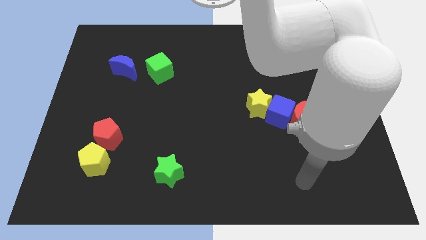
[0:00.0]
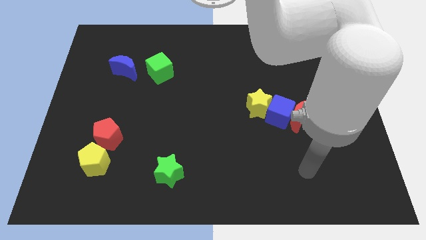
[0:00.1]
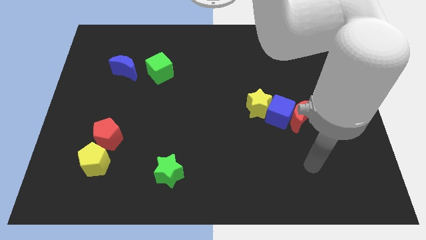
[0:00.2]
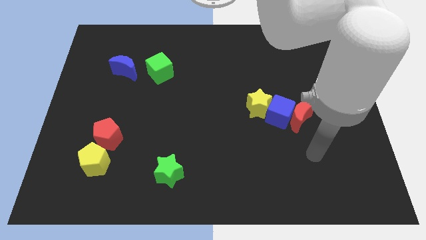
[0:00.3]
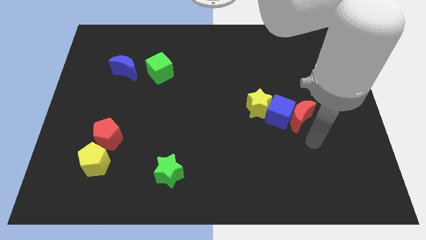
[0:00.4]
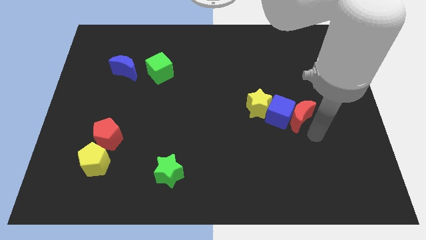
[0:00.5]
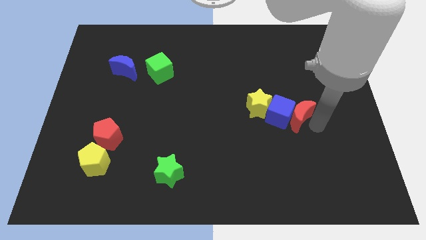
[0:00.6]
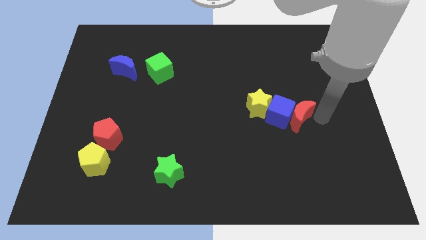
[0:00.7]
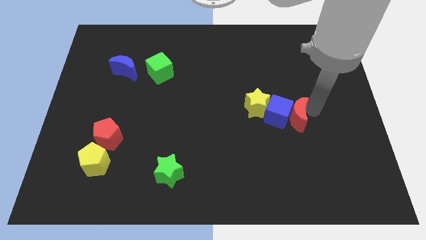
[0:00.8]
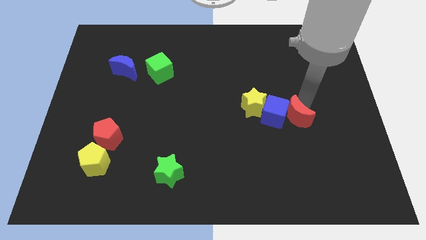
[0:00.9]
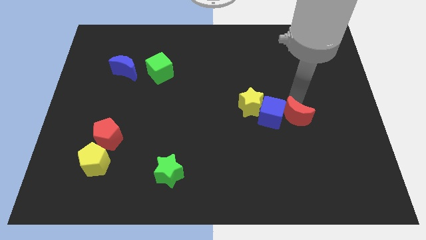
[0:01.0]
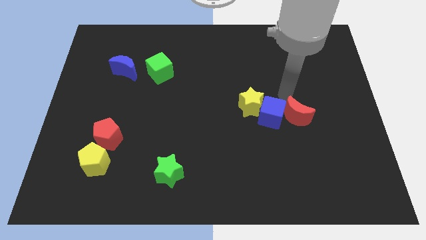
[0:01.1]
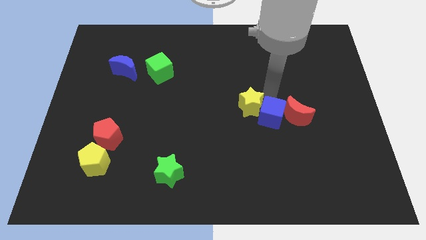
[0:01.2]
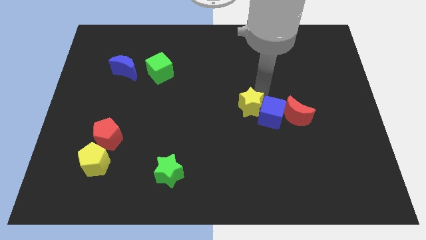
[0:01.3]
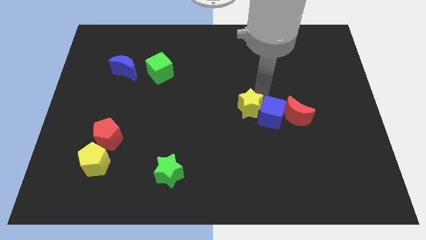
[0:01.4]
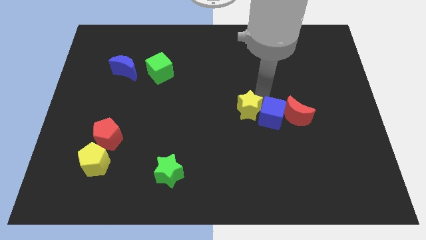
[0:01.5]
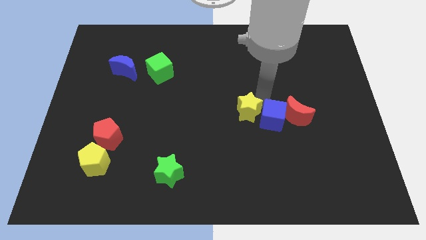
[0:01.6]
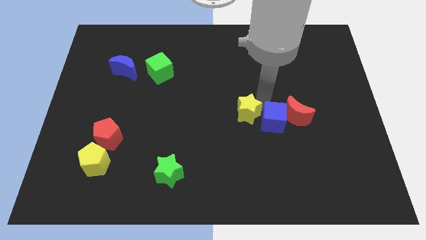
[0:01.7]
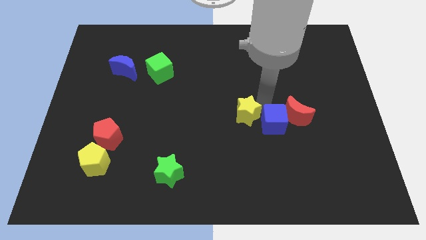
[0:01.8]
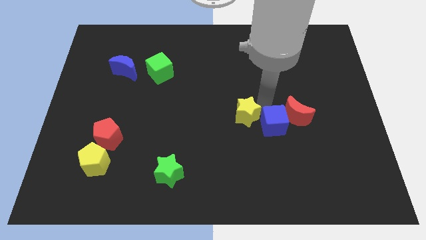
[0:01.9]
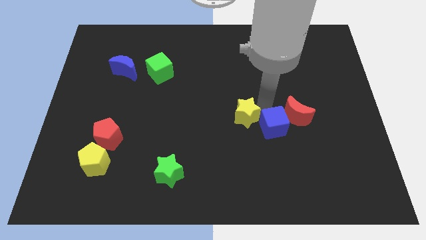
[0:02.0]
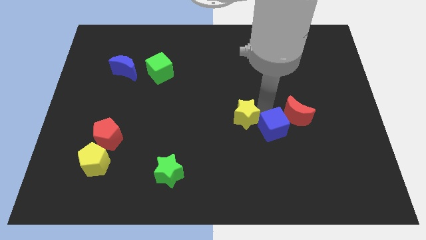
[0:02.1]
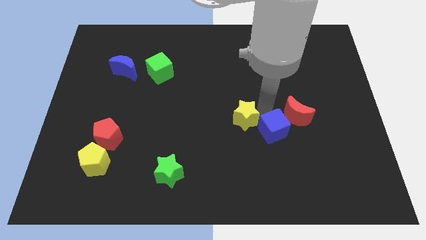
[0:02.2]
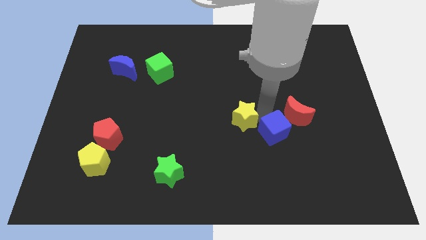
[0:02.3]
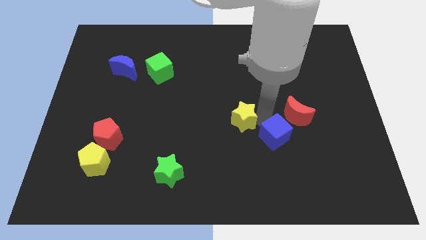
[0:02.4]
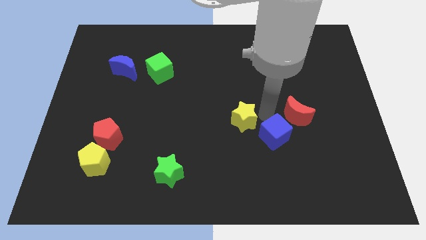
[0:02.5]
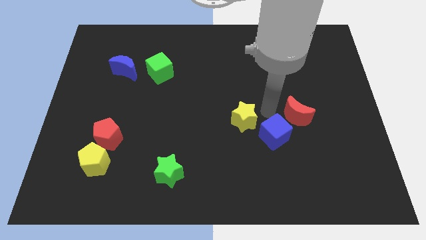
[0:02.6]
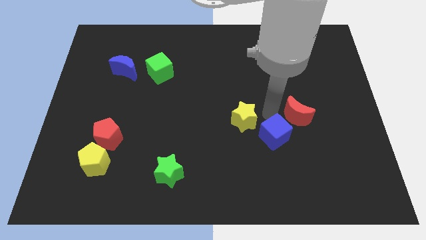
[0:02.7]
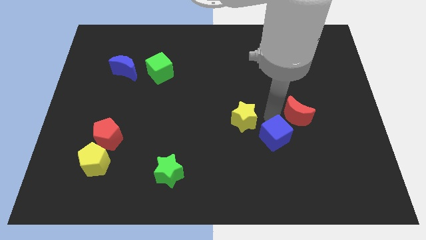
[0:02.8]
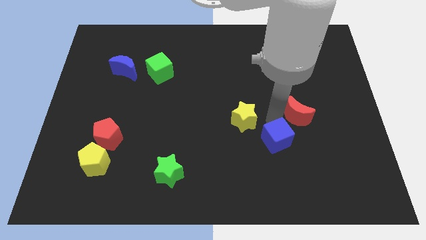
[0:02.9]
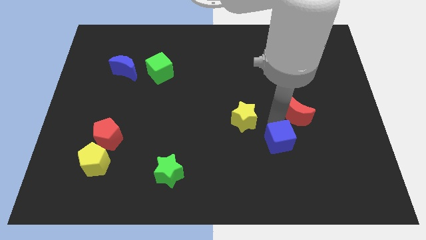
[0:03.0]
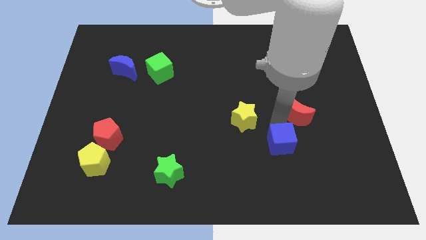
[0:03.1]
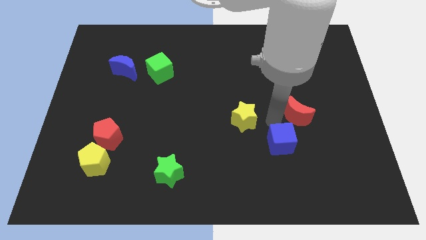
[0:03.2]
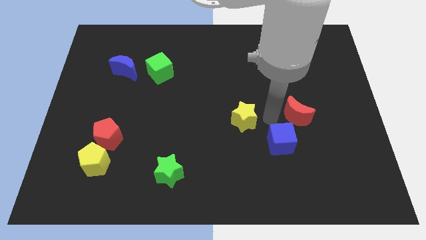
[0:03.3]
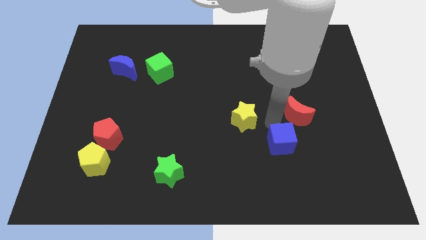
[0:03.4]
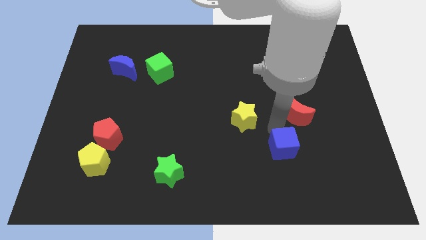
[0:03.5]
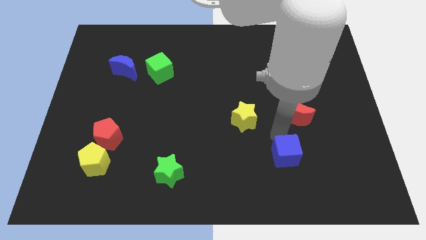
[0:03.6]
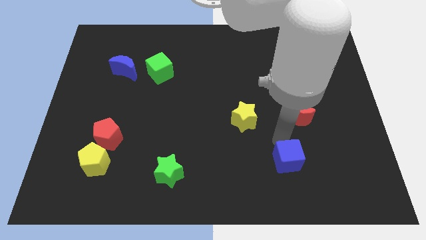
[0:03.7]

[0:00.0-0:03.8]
separate the blue cube from the red moon and yellow star

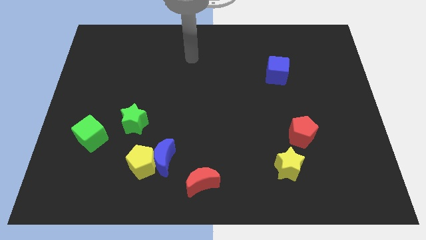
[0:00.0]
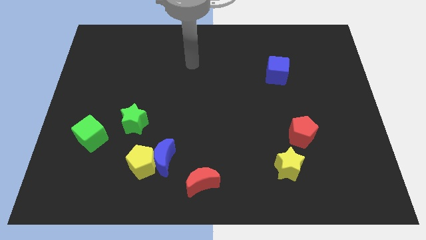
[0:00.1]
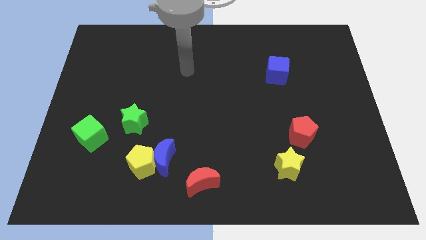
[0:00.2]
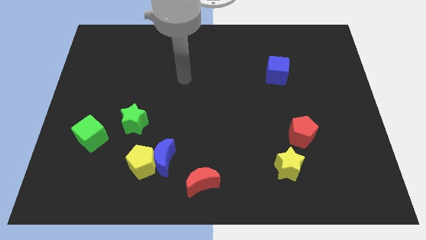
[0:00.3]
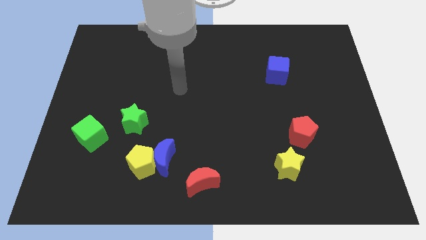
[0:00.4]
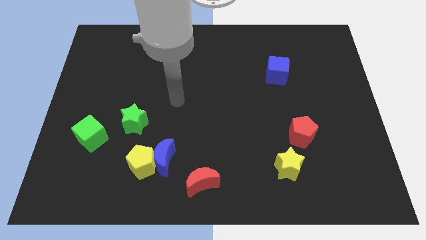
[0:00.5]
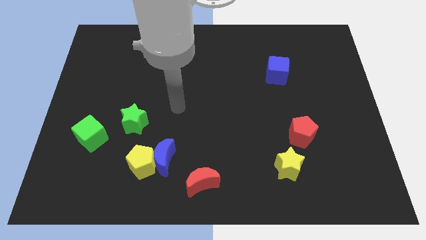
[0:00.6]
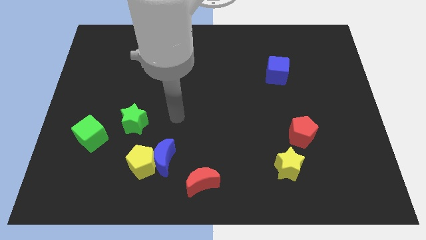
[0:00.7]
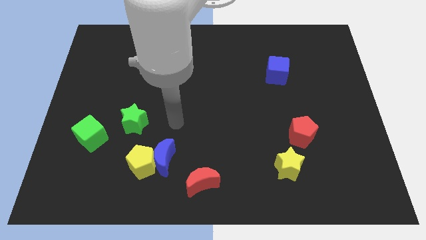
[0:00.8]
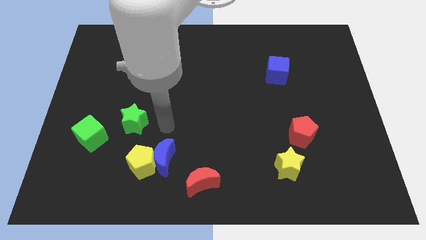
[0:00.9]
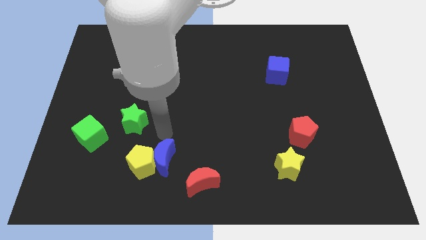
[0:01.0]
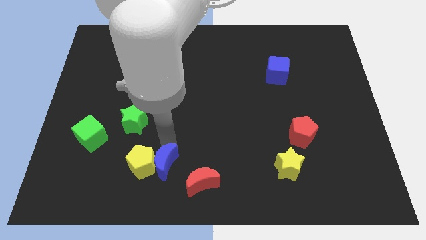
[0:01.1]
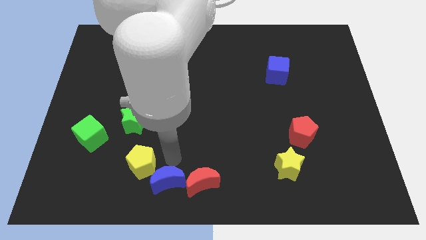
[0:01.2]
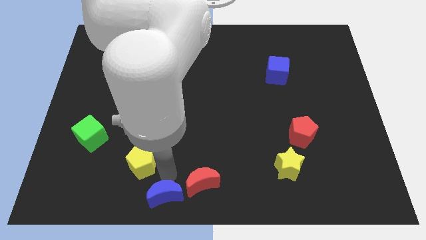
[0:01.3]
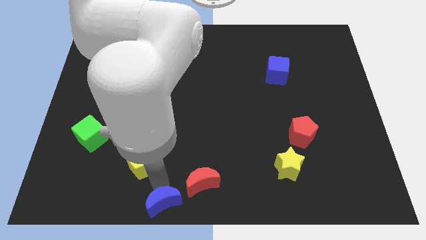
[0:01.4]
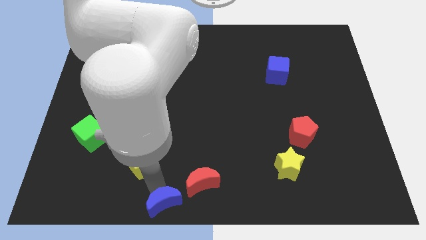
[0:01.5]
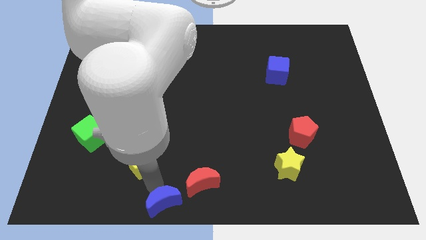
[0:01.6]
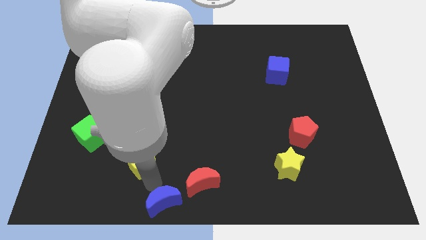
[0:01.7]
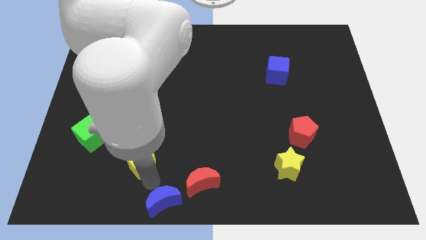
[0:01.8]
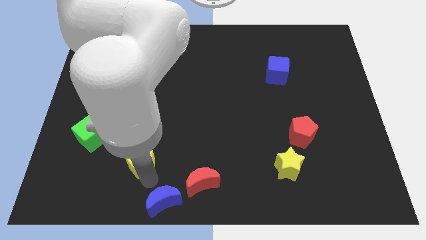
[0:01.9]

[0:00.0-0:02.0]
separate the yellow pentagon from the blue moon

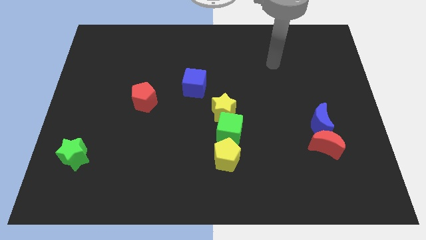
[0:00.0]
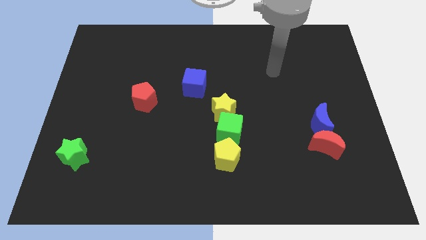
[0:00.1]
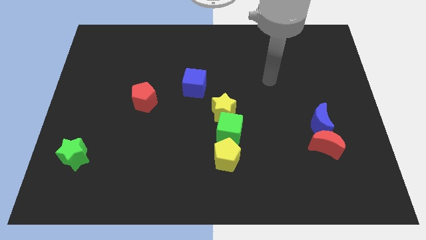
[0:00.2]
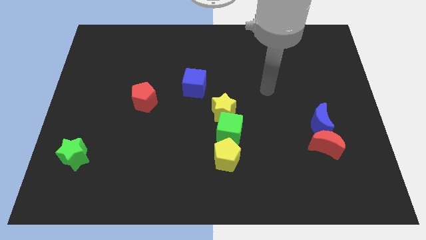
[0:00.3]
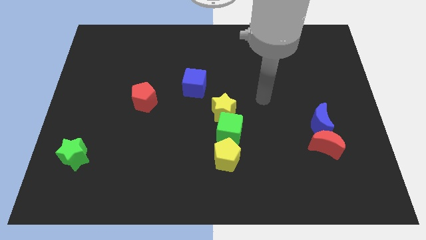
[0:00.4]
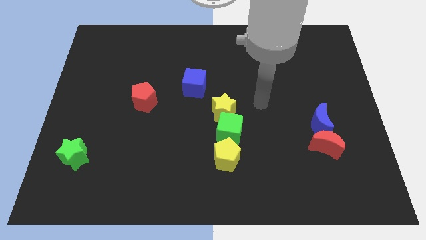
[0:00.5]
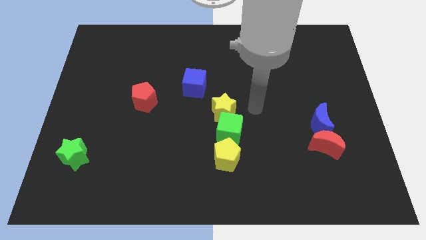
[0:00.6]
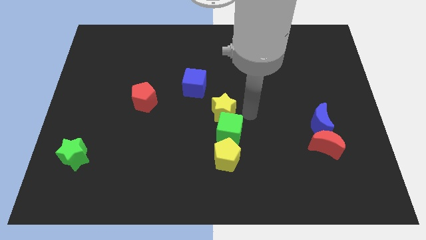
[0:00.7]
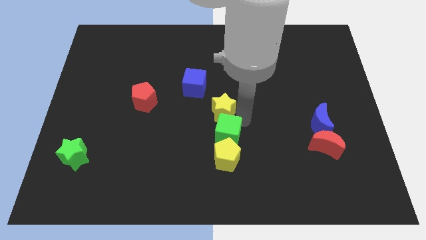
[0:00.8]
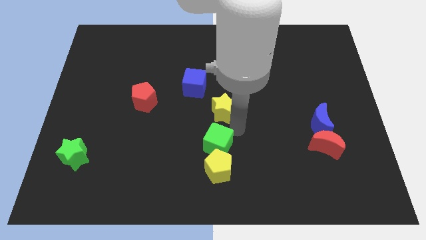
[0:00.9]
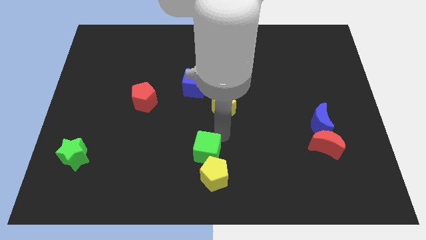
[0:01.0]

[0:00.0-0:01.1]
separate the yellow star from the green cube

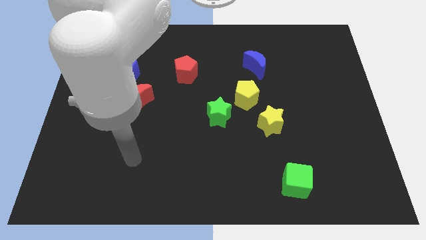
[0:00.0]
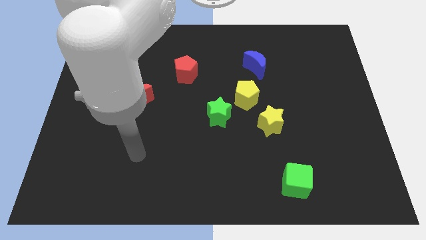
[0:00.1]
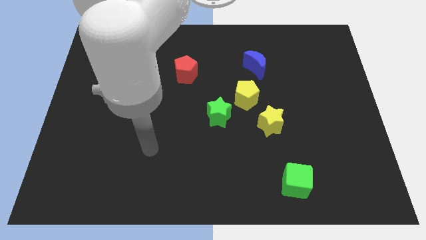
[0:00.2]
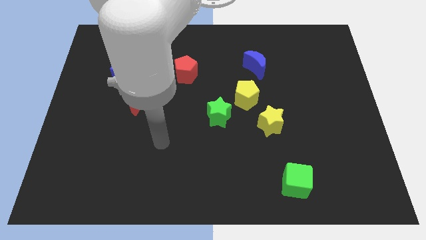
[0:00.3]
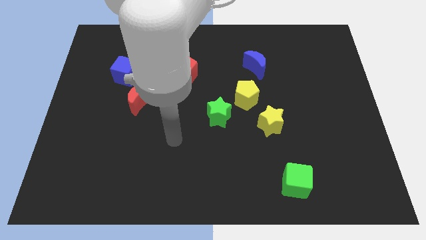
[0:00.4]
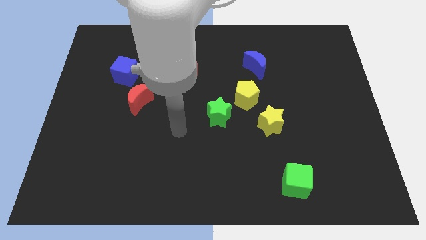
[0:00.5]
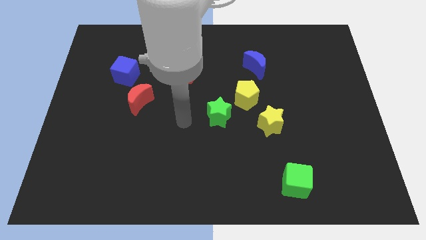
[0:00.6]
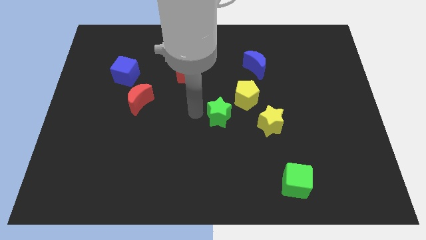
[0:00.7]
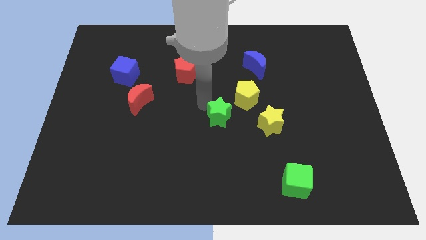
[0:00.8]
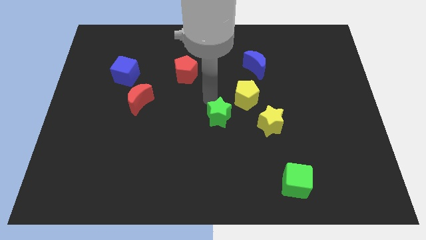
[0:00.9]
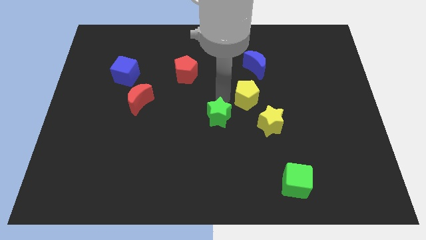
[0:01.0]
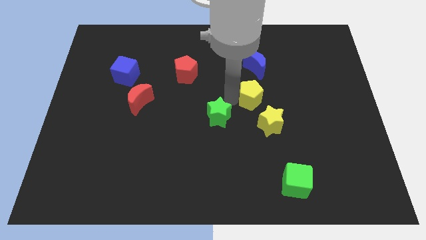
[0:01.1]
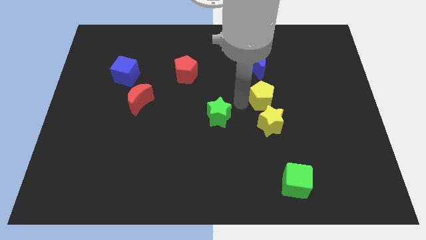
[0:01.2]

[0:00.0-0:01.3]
move the green star away from the yellow pentagon

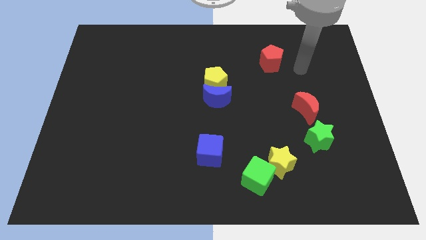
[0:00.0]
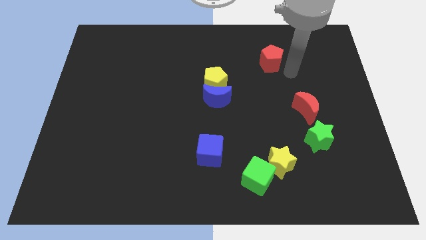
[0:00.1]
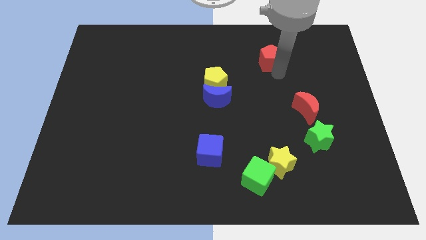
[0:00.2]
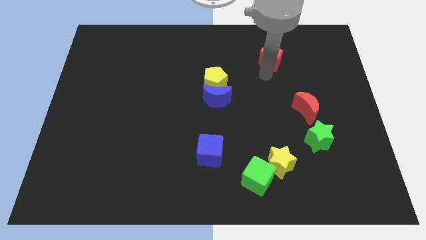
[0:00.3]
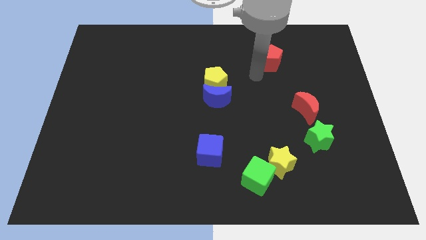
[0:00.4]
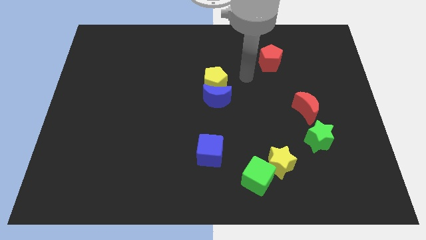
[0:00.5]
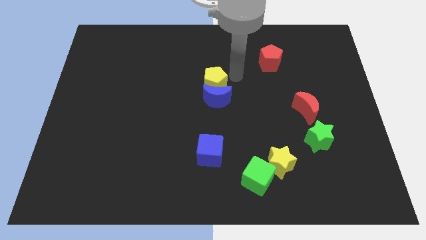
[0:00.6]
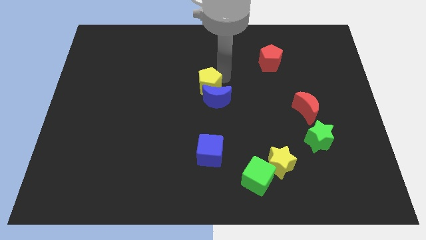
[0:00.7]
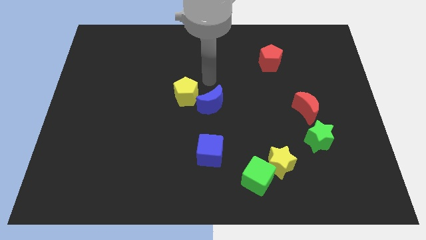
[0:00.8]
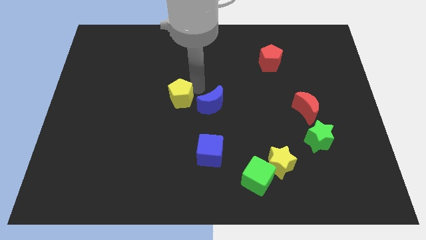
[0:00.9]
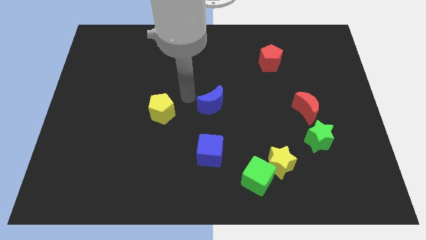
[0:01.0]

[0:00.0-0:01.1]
move the blue moon away from the yellow pentagon
